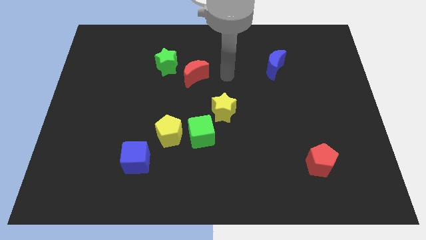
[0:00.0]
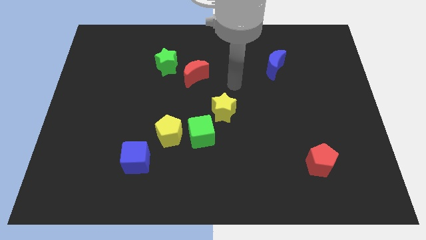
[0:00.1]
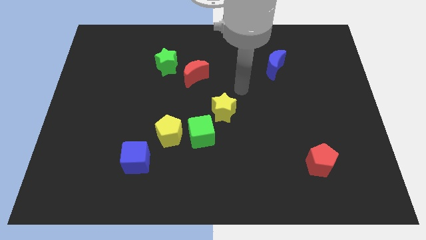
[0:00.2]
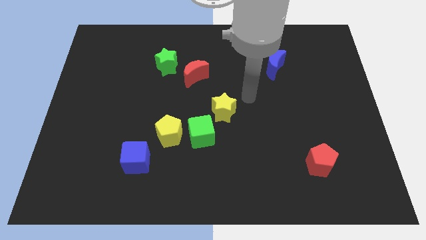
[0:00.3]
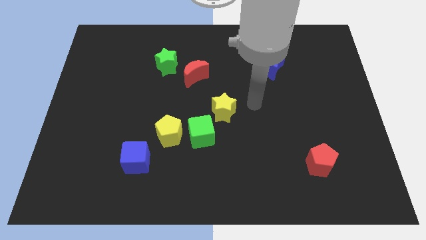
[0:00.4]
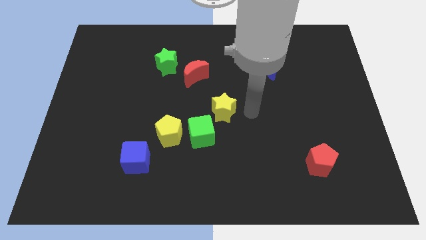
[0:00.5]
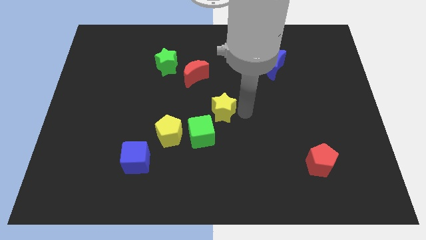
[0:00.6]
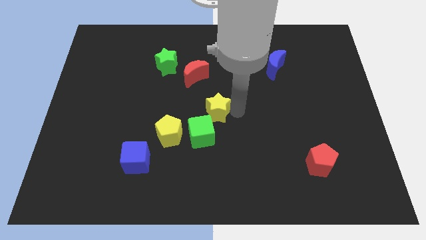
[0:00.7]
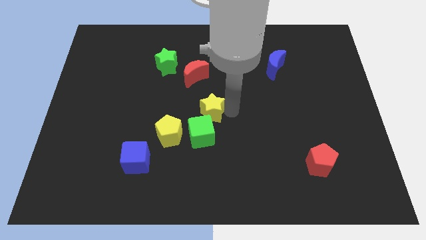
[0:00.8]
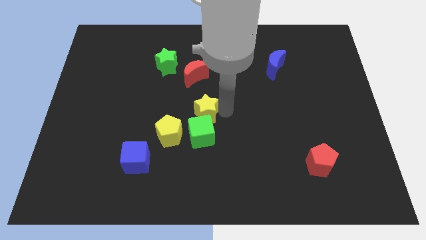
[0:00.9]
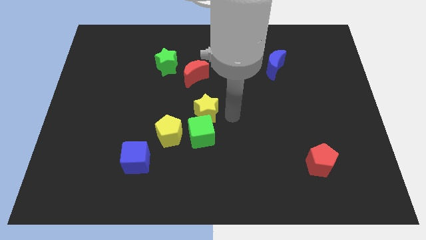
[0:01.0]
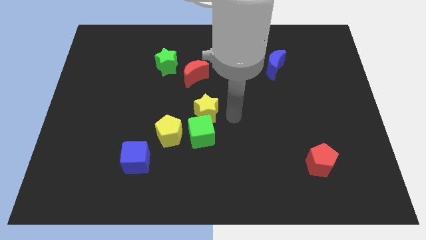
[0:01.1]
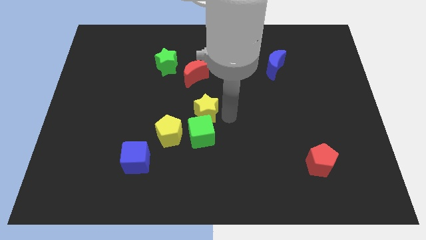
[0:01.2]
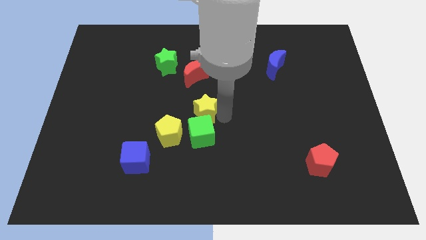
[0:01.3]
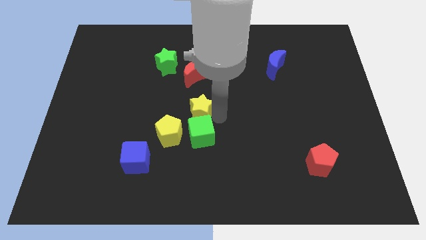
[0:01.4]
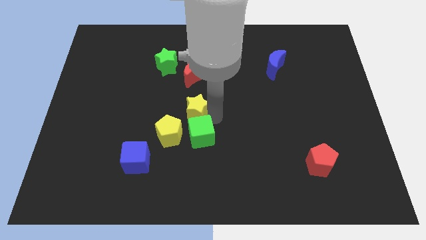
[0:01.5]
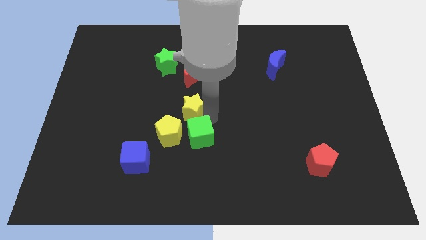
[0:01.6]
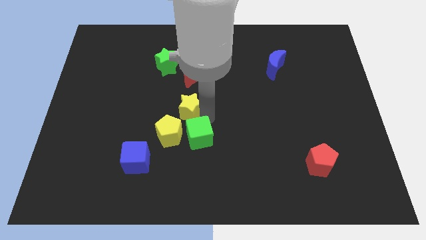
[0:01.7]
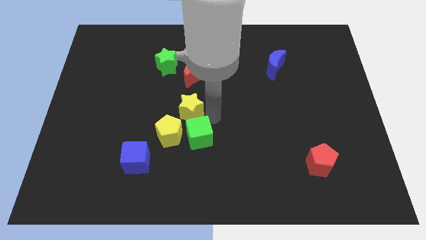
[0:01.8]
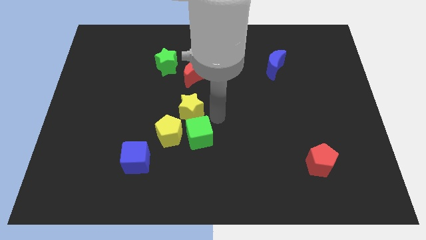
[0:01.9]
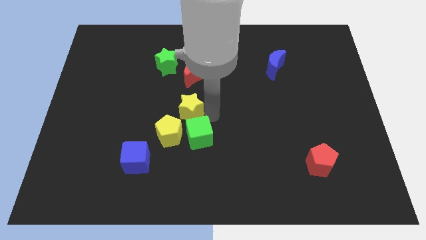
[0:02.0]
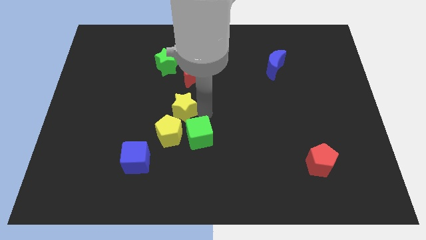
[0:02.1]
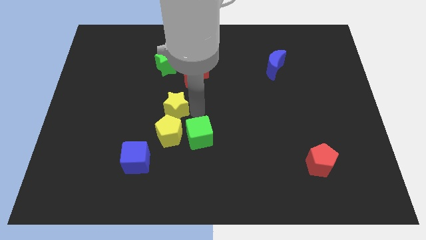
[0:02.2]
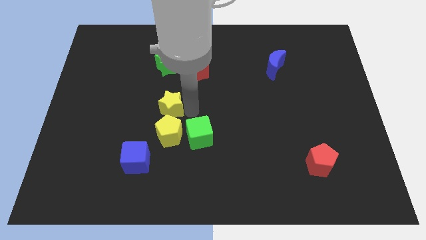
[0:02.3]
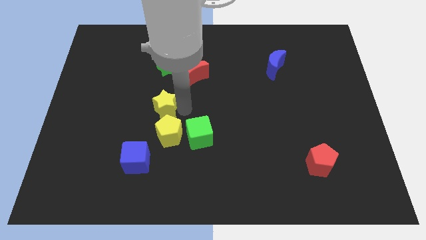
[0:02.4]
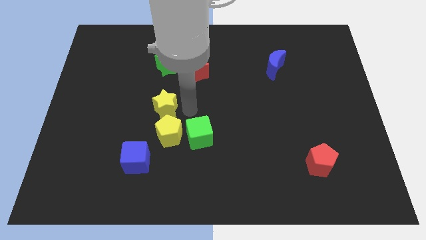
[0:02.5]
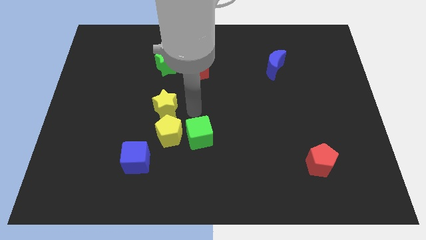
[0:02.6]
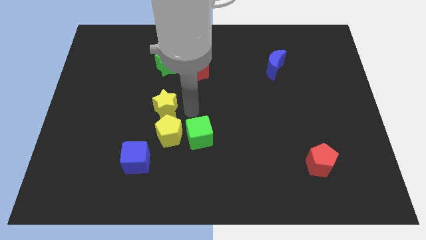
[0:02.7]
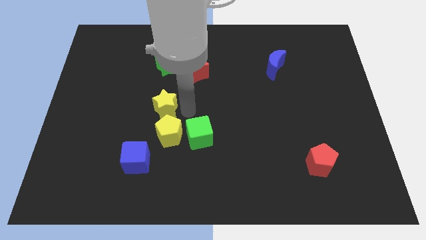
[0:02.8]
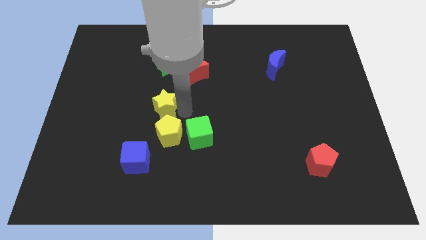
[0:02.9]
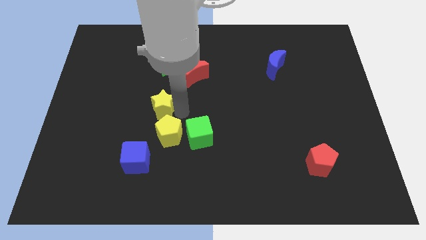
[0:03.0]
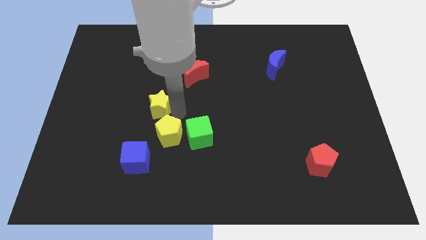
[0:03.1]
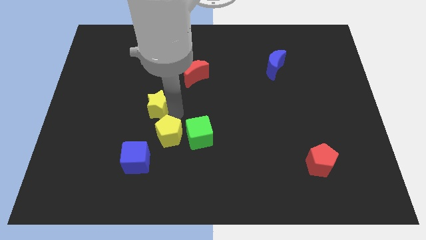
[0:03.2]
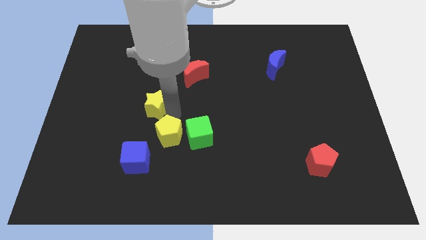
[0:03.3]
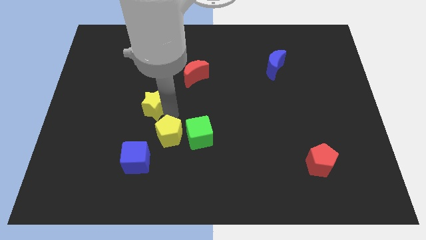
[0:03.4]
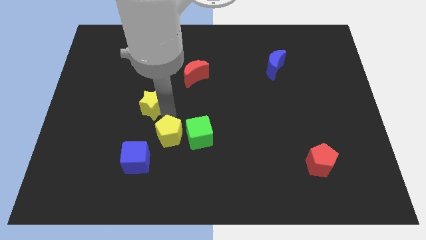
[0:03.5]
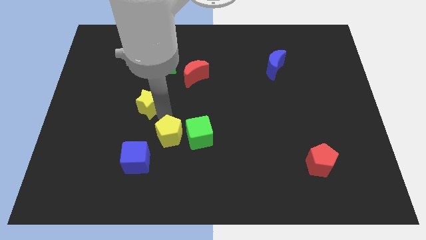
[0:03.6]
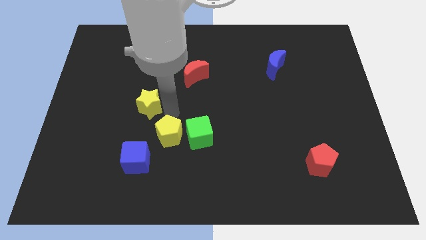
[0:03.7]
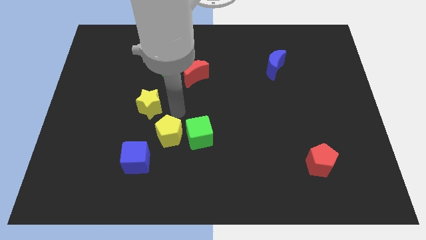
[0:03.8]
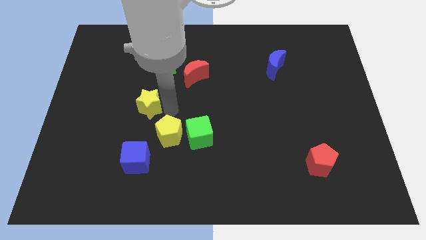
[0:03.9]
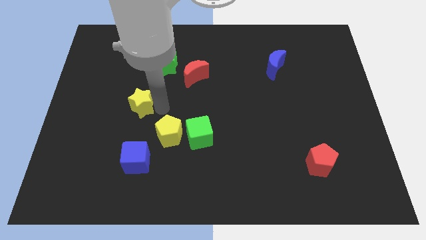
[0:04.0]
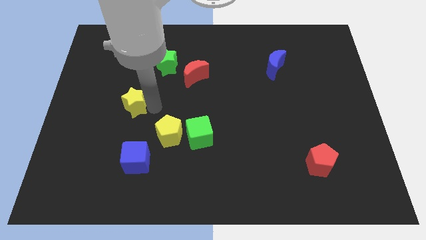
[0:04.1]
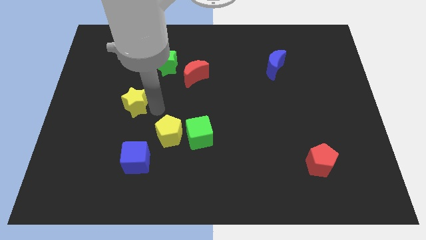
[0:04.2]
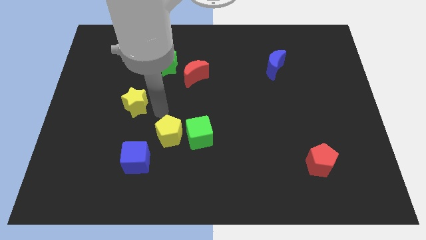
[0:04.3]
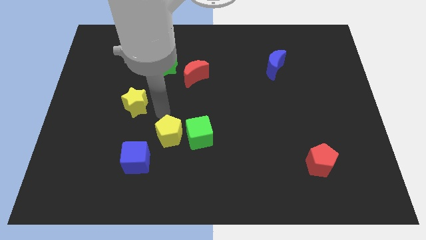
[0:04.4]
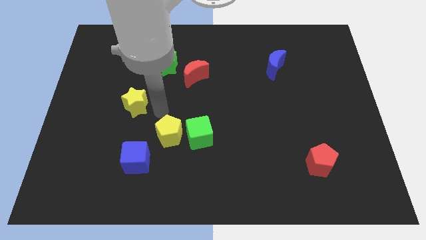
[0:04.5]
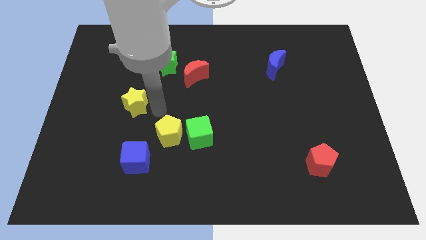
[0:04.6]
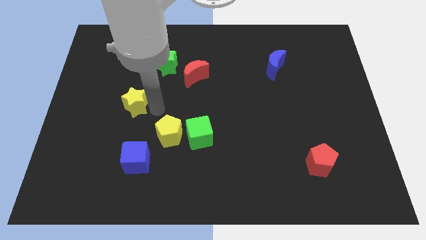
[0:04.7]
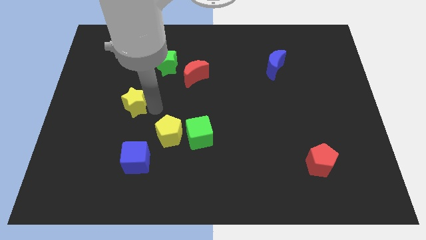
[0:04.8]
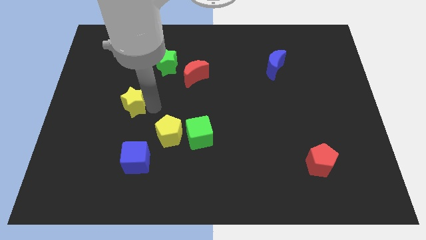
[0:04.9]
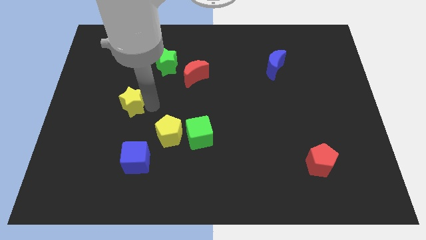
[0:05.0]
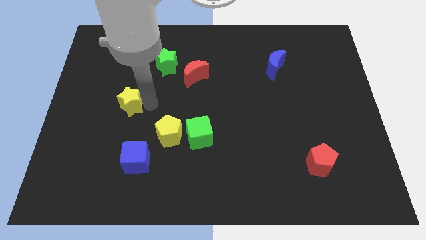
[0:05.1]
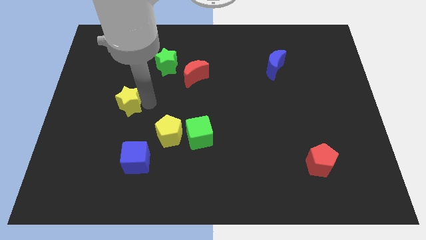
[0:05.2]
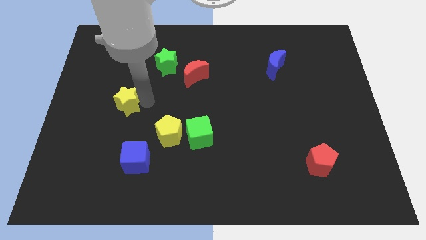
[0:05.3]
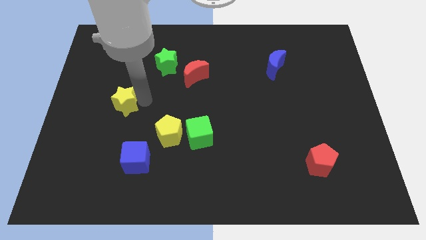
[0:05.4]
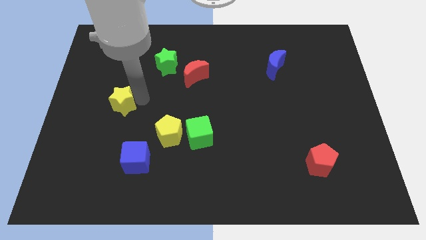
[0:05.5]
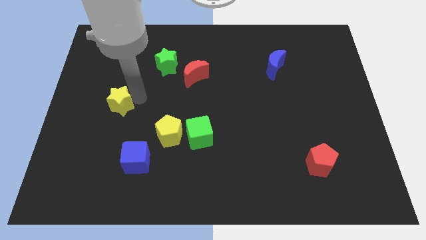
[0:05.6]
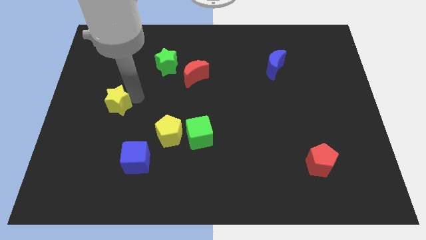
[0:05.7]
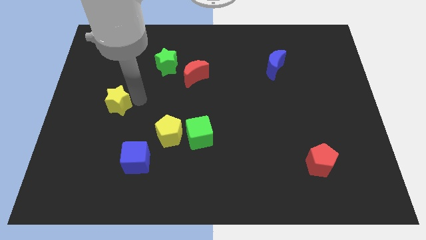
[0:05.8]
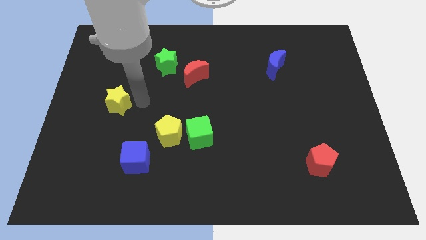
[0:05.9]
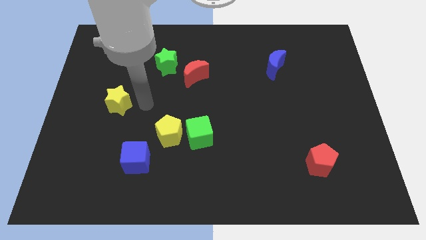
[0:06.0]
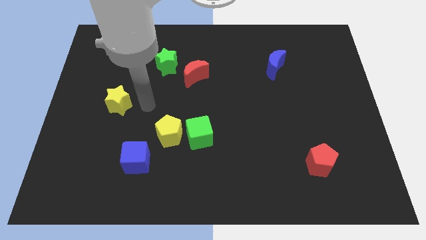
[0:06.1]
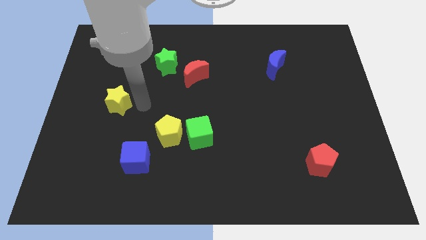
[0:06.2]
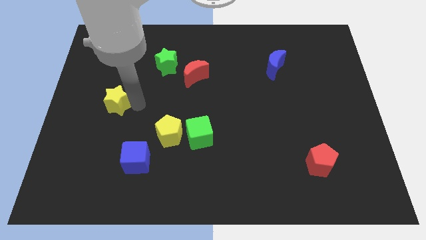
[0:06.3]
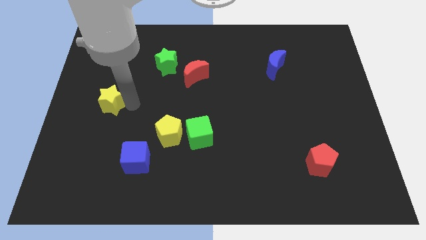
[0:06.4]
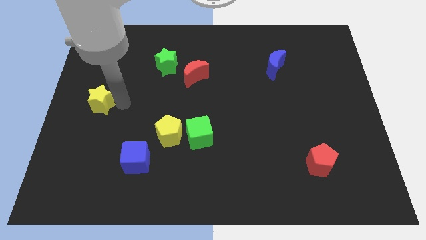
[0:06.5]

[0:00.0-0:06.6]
slide the yellow star to the center left
